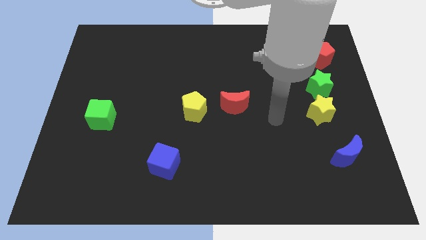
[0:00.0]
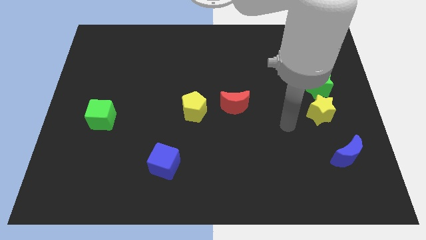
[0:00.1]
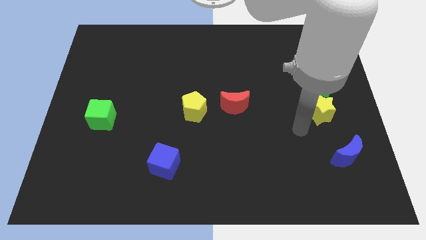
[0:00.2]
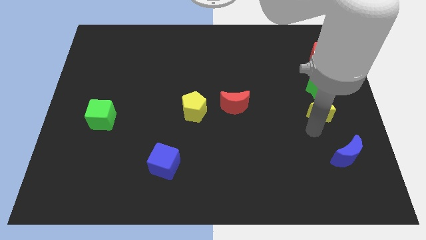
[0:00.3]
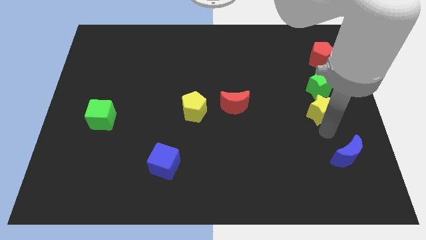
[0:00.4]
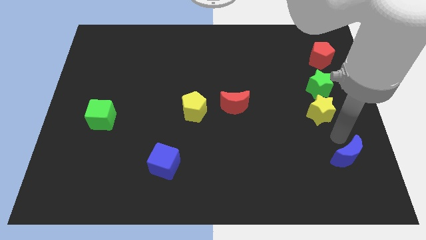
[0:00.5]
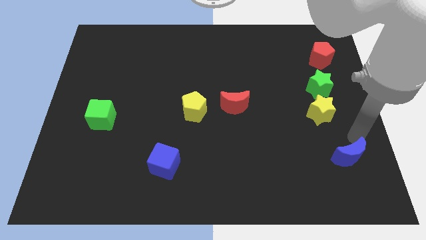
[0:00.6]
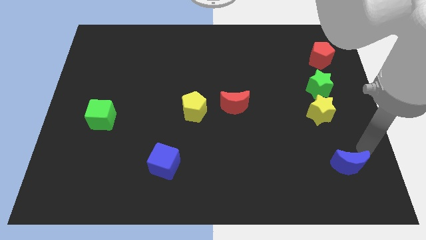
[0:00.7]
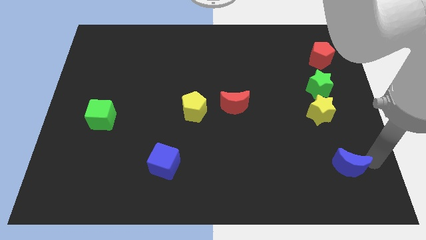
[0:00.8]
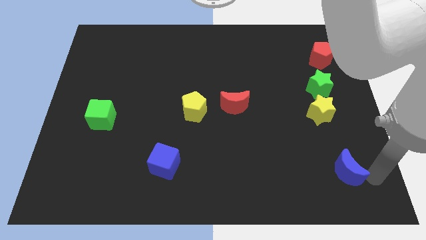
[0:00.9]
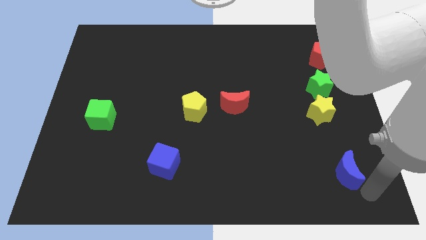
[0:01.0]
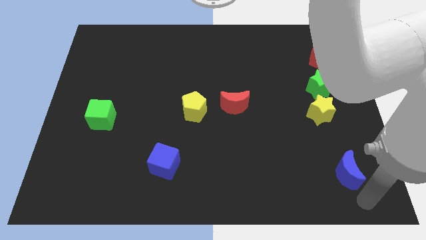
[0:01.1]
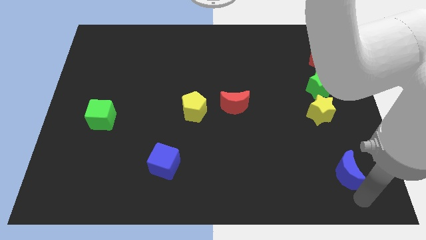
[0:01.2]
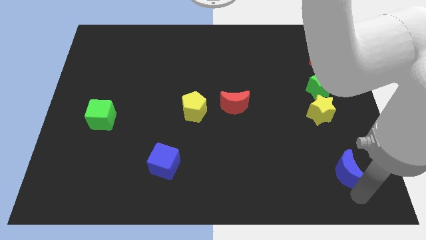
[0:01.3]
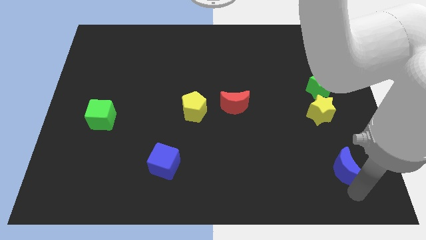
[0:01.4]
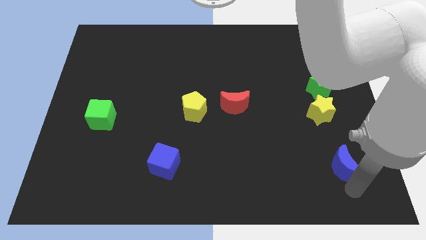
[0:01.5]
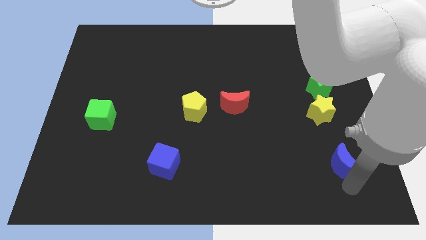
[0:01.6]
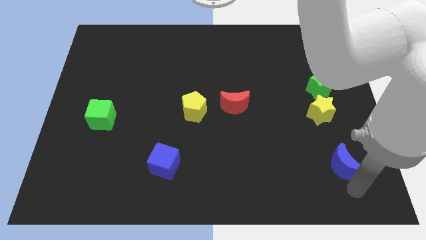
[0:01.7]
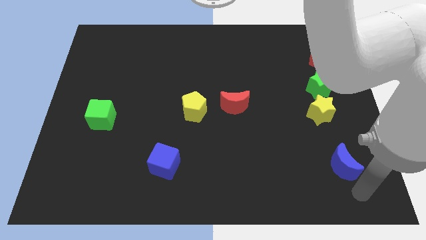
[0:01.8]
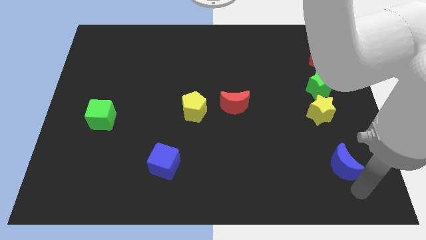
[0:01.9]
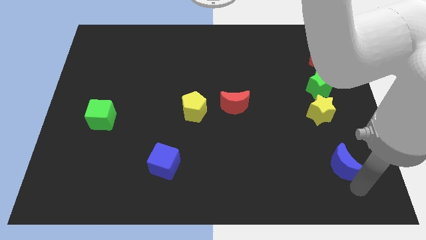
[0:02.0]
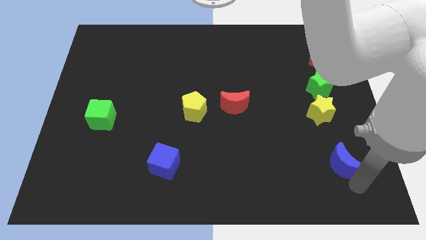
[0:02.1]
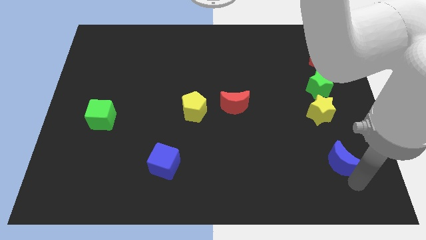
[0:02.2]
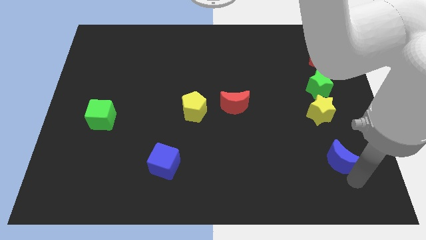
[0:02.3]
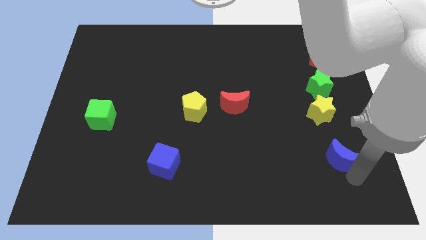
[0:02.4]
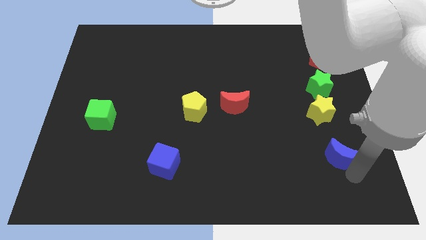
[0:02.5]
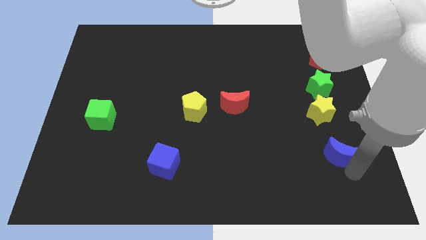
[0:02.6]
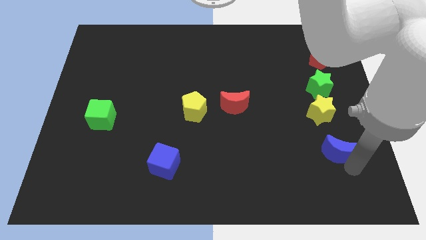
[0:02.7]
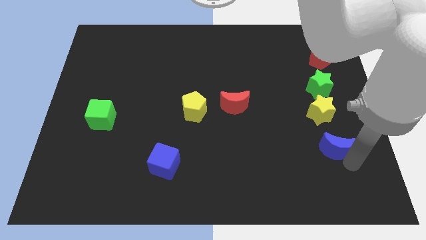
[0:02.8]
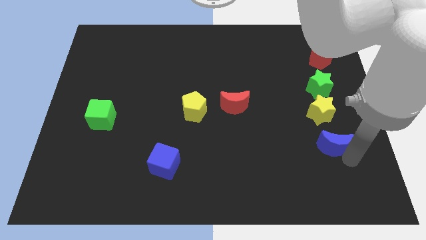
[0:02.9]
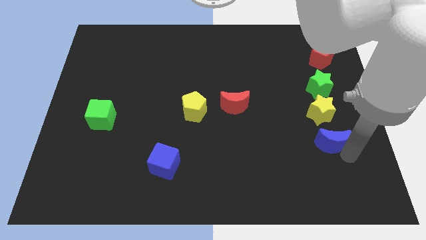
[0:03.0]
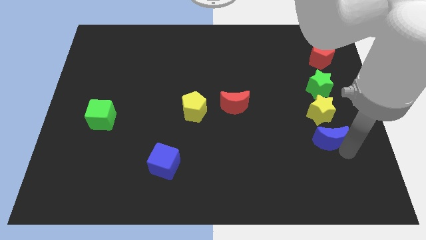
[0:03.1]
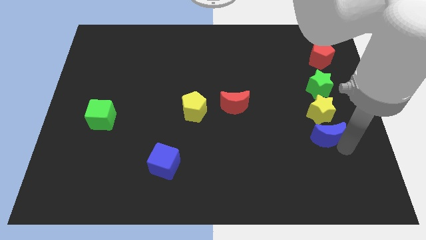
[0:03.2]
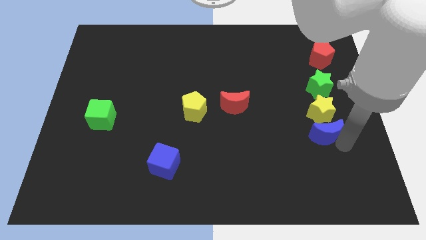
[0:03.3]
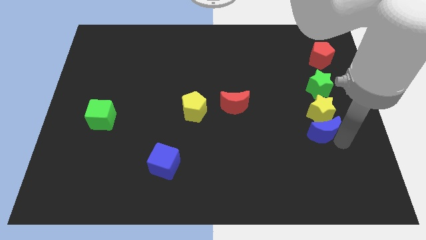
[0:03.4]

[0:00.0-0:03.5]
move the blue moon somewhat diagonally upwards and to the left

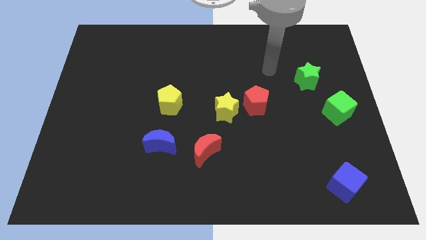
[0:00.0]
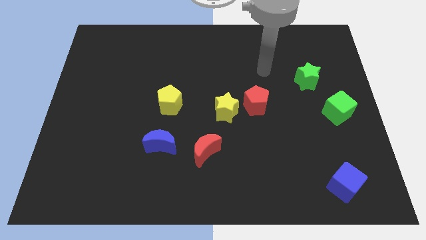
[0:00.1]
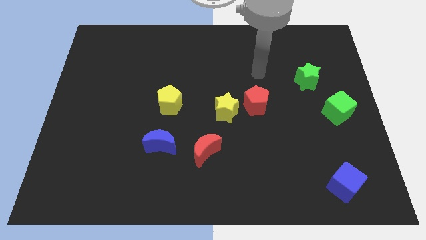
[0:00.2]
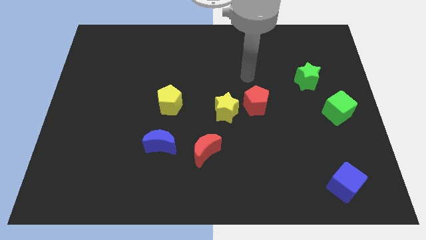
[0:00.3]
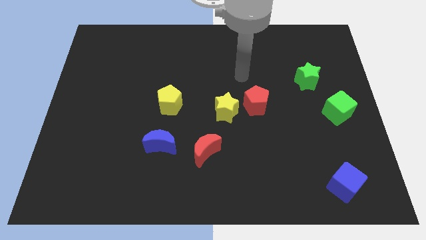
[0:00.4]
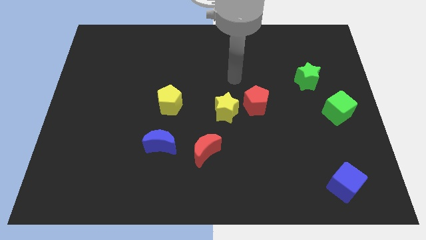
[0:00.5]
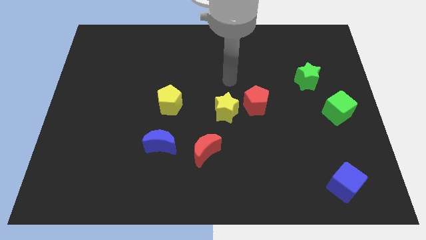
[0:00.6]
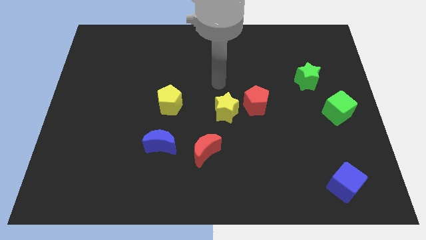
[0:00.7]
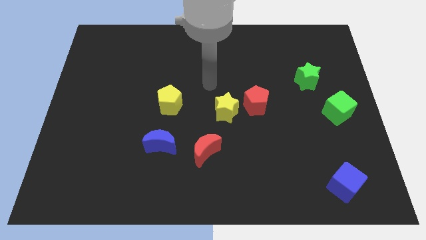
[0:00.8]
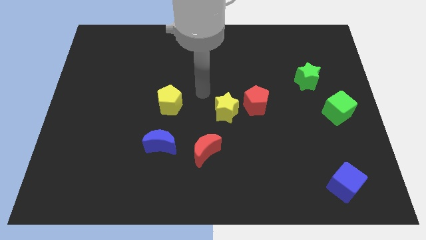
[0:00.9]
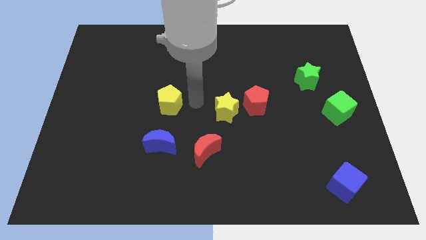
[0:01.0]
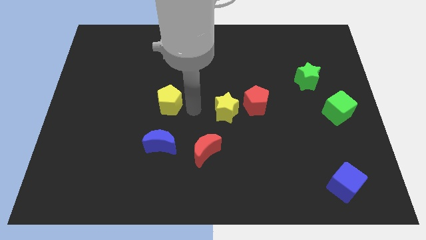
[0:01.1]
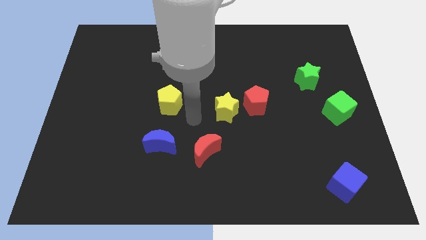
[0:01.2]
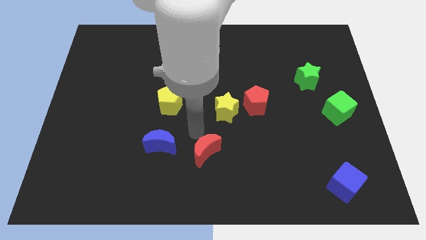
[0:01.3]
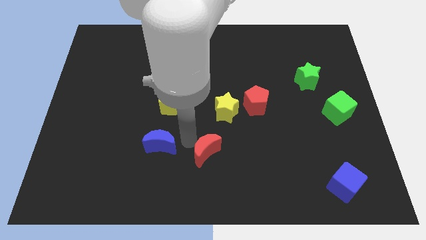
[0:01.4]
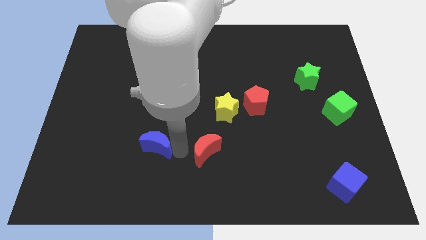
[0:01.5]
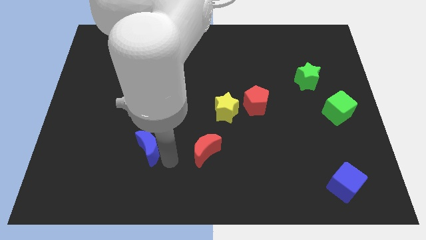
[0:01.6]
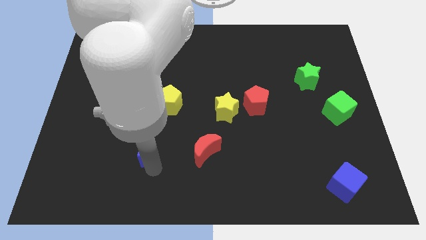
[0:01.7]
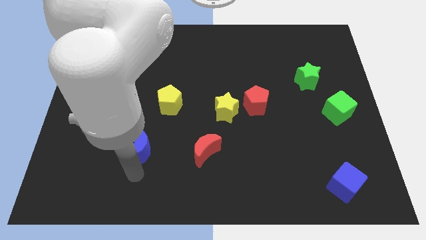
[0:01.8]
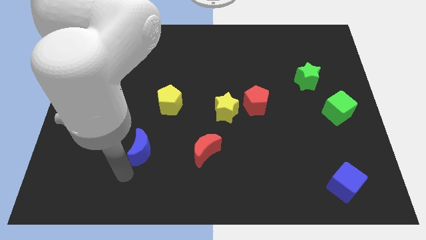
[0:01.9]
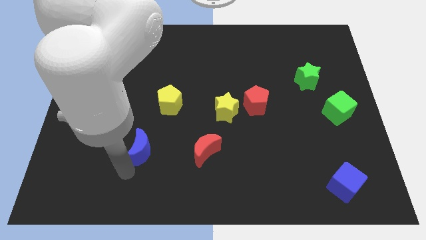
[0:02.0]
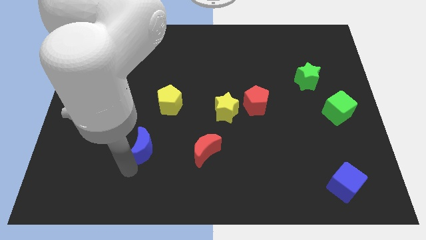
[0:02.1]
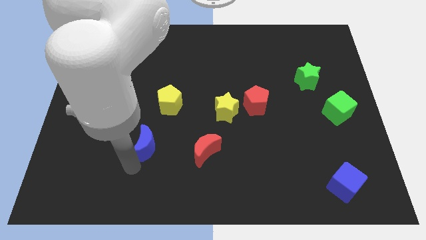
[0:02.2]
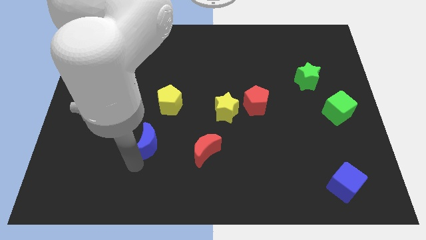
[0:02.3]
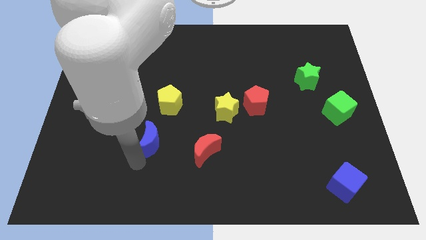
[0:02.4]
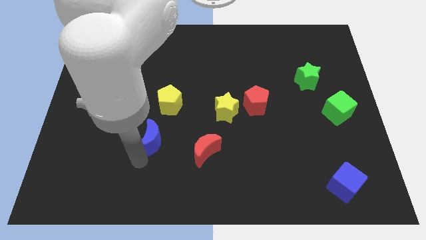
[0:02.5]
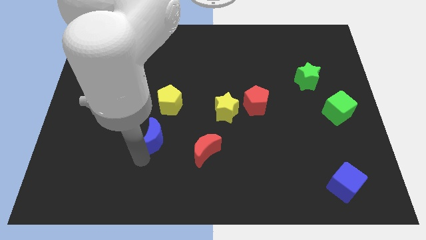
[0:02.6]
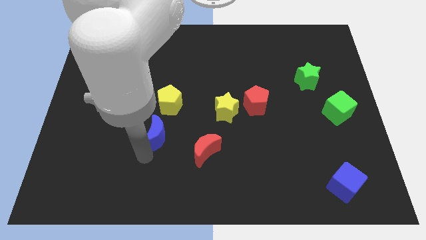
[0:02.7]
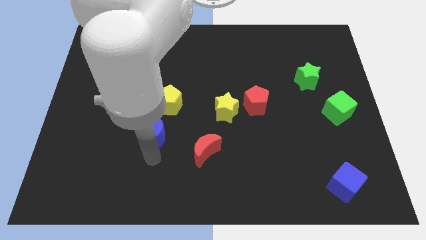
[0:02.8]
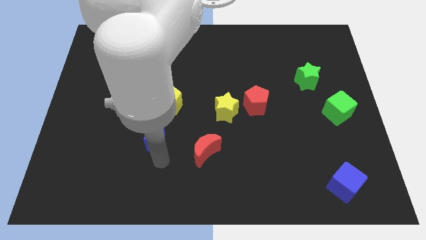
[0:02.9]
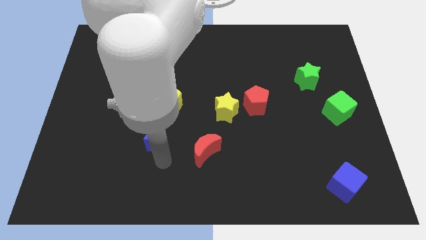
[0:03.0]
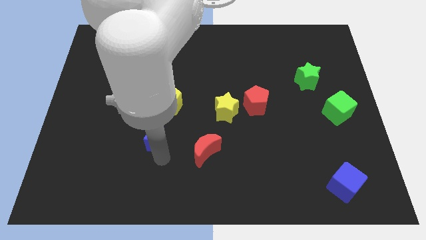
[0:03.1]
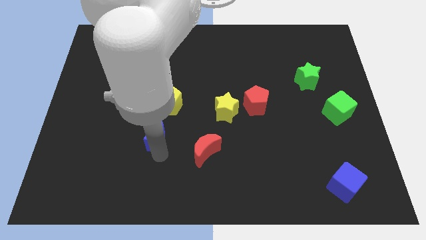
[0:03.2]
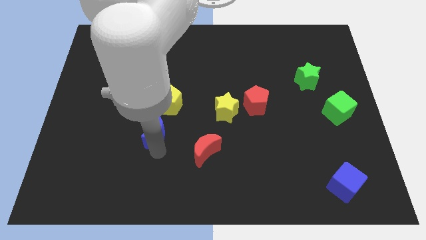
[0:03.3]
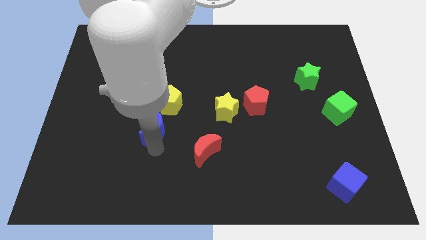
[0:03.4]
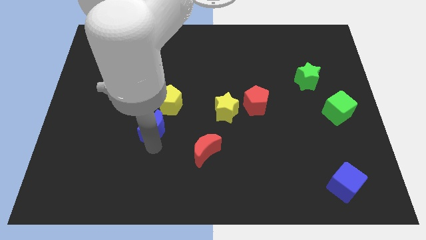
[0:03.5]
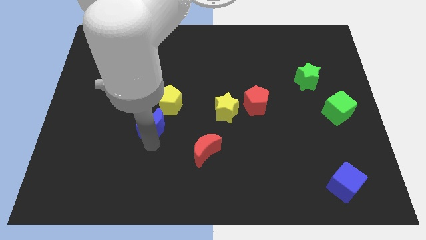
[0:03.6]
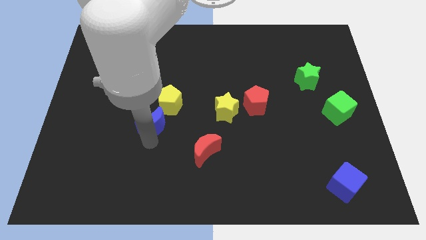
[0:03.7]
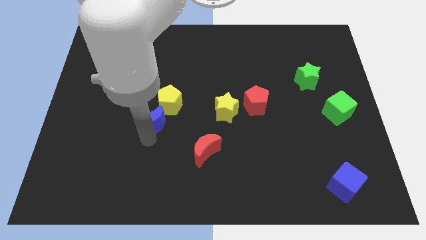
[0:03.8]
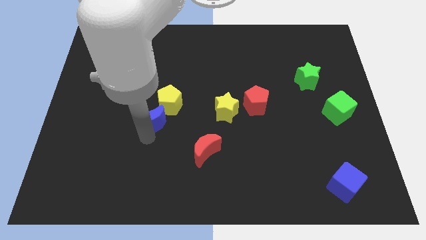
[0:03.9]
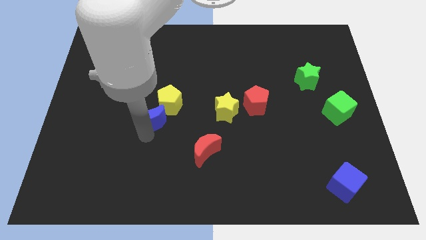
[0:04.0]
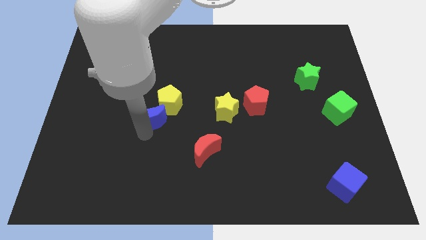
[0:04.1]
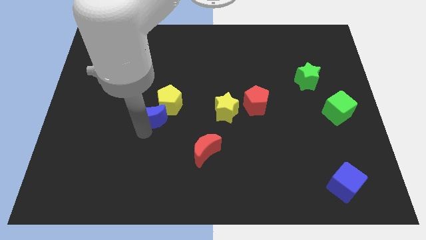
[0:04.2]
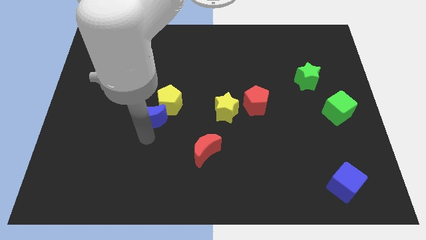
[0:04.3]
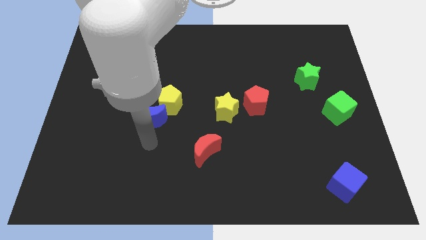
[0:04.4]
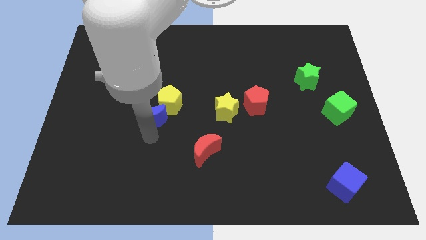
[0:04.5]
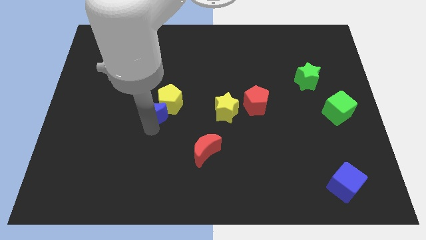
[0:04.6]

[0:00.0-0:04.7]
slightly move the blue moon up
